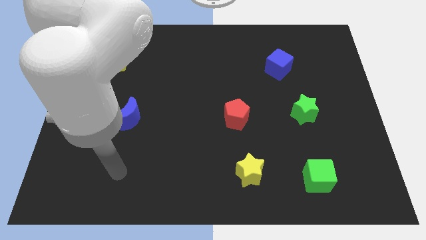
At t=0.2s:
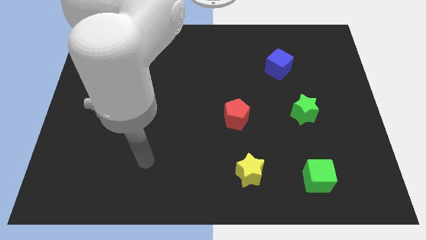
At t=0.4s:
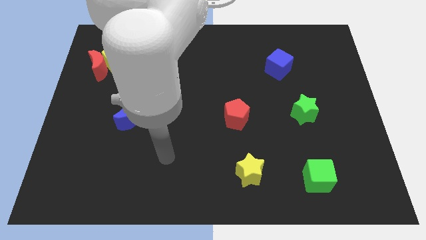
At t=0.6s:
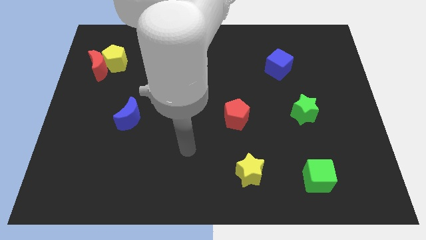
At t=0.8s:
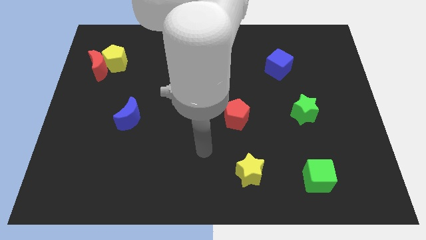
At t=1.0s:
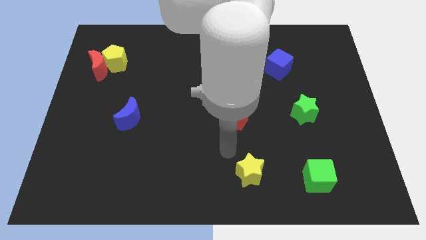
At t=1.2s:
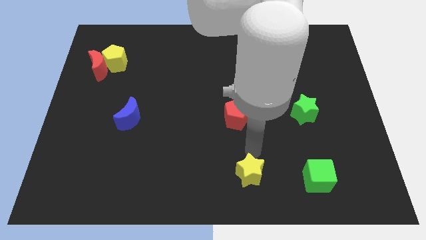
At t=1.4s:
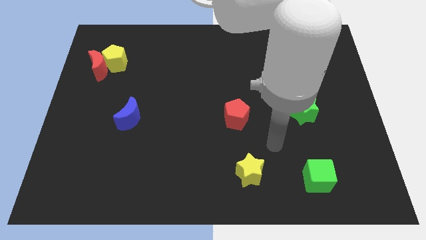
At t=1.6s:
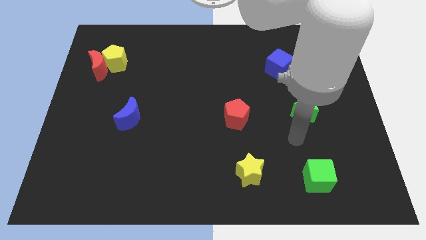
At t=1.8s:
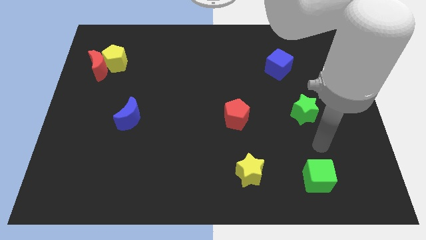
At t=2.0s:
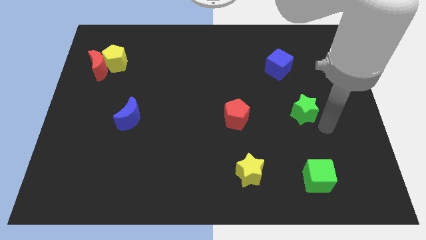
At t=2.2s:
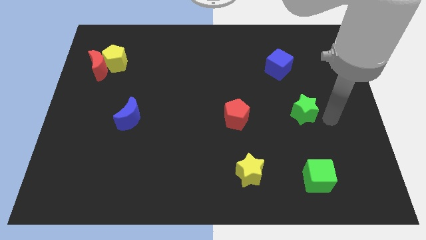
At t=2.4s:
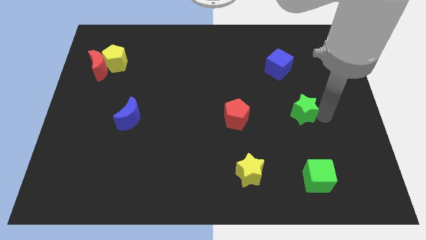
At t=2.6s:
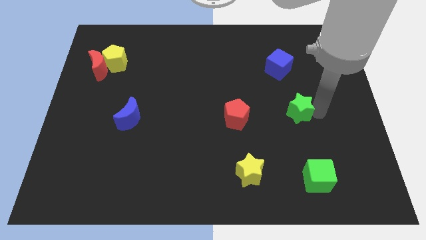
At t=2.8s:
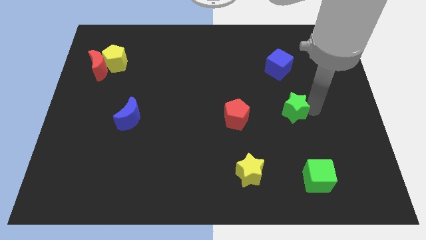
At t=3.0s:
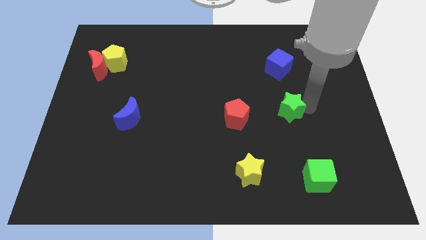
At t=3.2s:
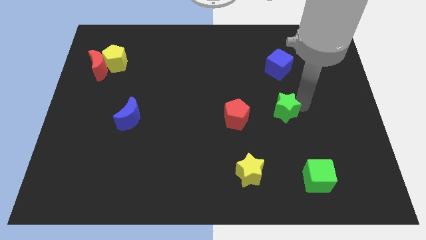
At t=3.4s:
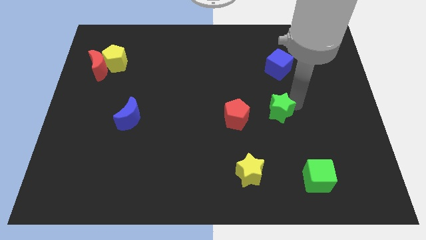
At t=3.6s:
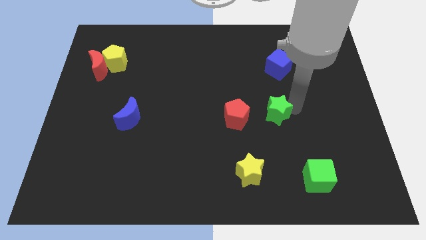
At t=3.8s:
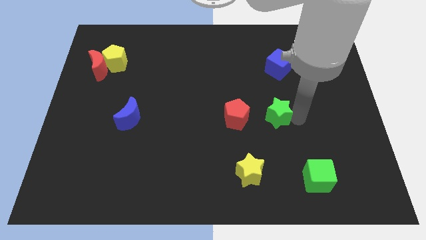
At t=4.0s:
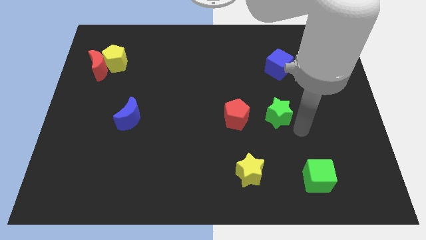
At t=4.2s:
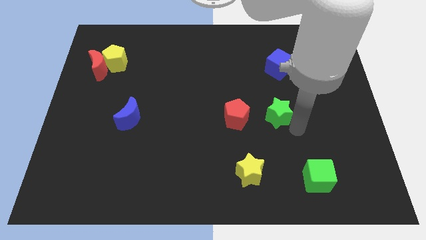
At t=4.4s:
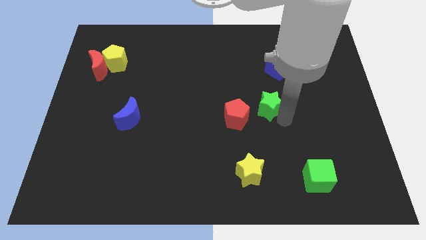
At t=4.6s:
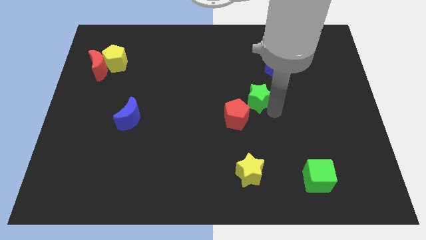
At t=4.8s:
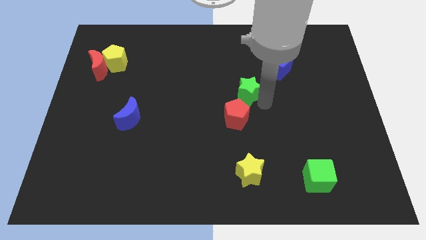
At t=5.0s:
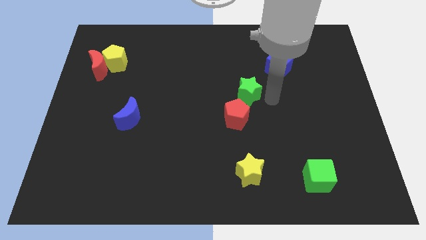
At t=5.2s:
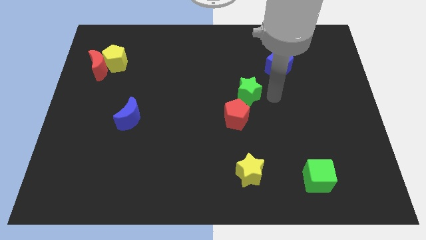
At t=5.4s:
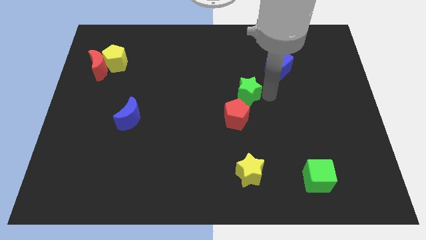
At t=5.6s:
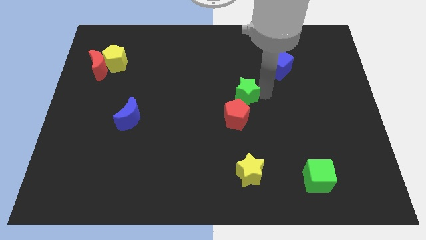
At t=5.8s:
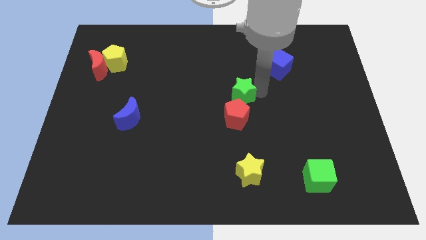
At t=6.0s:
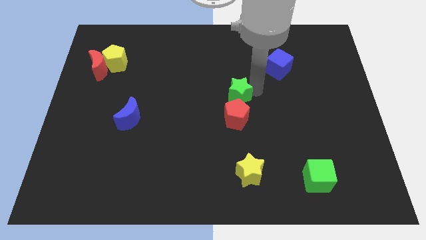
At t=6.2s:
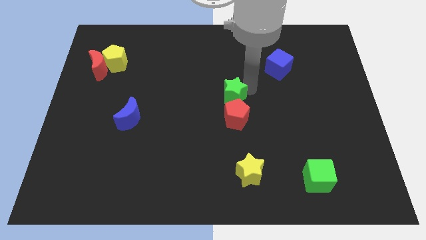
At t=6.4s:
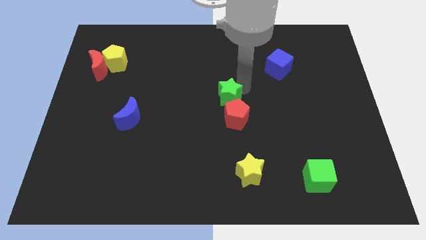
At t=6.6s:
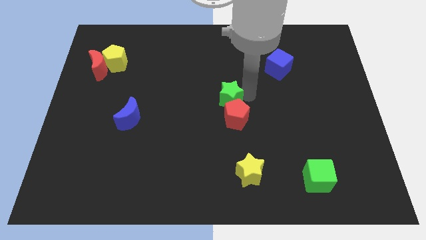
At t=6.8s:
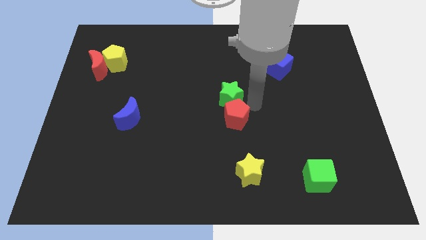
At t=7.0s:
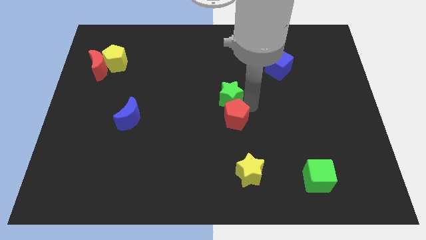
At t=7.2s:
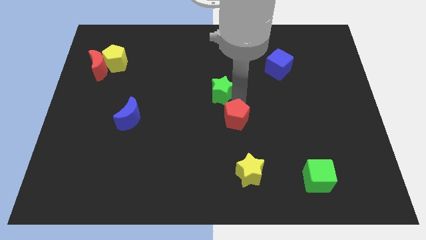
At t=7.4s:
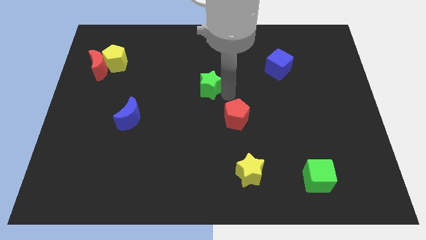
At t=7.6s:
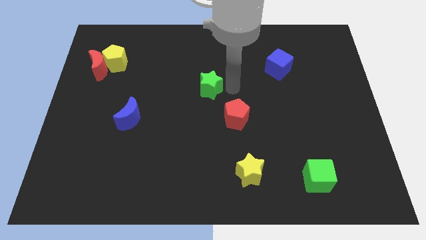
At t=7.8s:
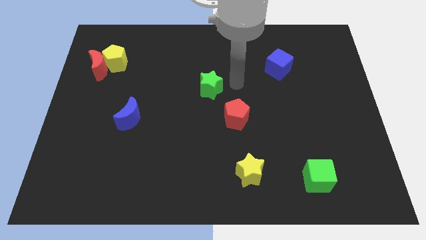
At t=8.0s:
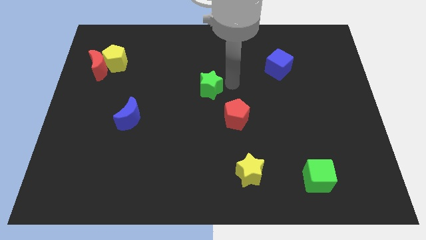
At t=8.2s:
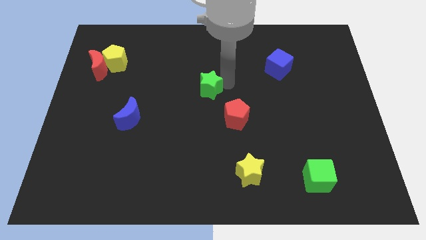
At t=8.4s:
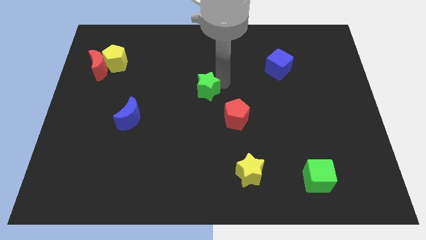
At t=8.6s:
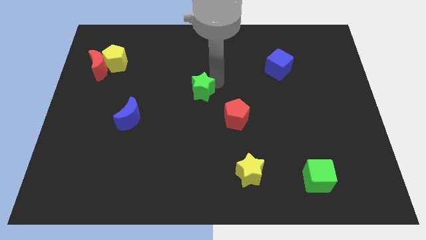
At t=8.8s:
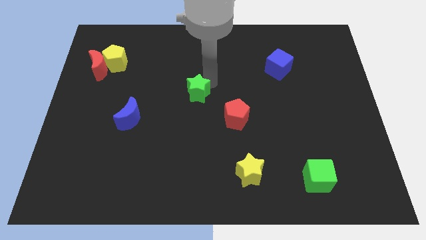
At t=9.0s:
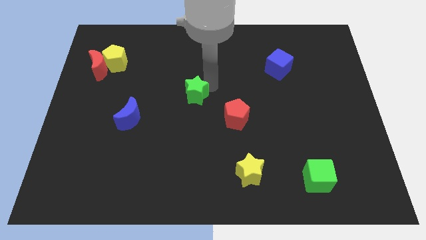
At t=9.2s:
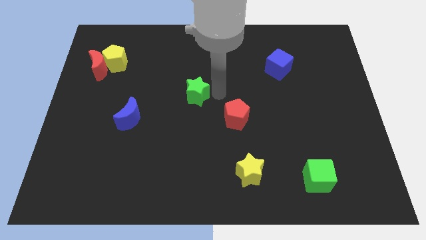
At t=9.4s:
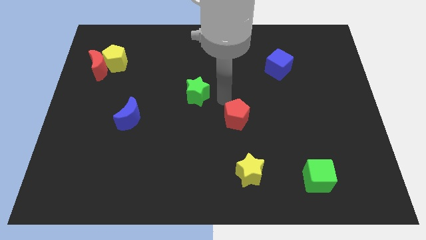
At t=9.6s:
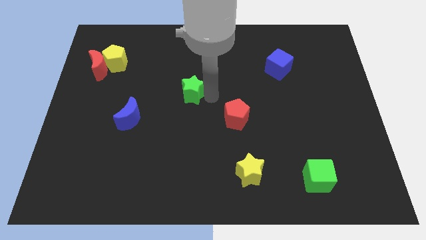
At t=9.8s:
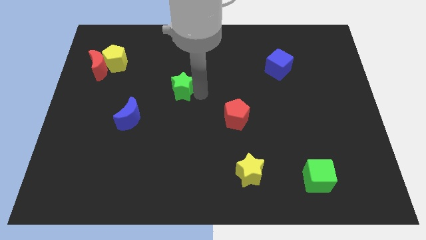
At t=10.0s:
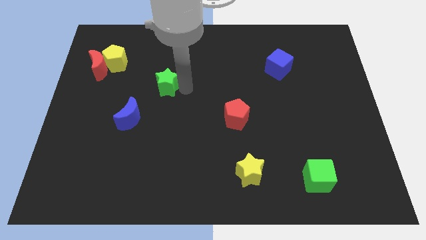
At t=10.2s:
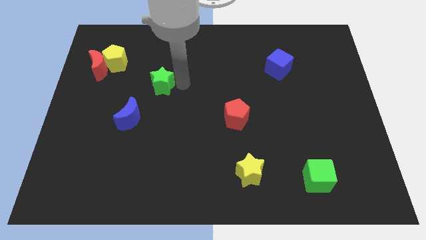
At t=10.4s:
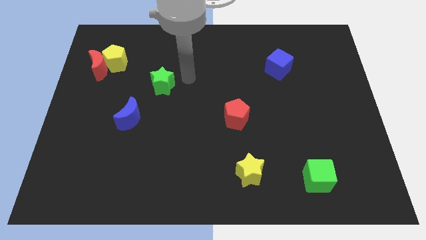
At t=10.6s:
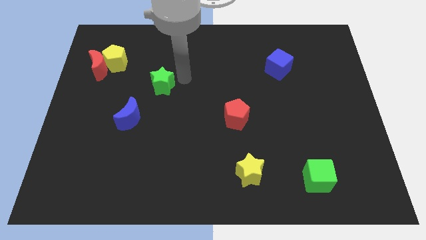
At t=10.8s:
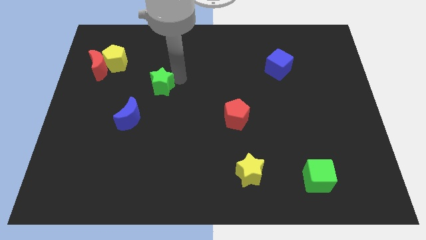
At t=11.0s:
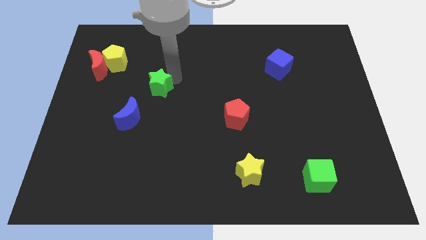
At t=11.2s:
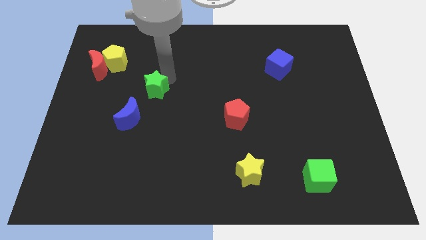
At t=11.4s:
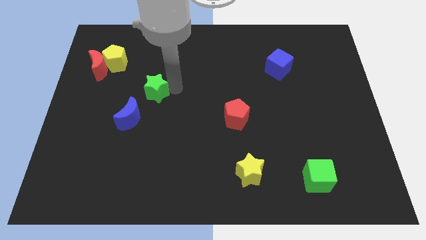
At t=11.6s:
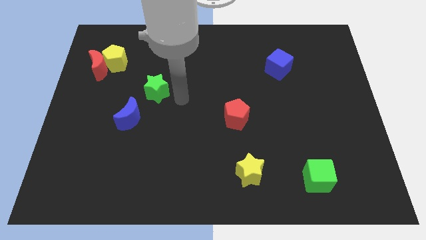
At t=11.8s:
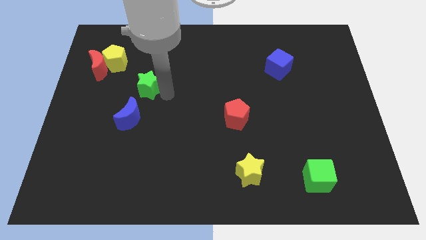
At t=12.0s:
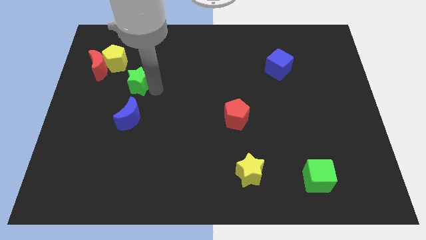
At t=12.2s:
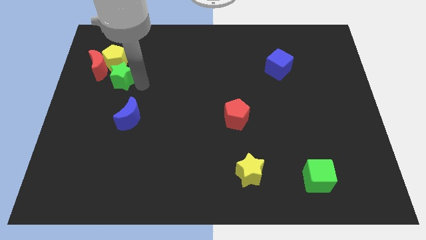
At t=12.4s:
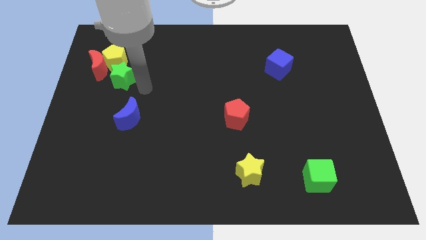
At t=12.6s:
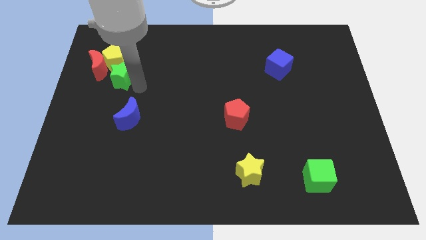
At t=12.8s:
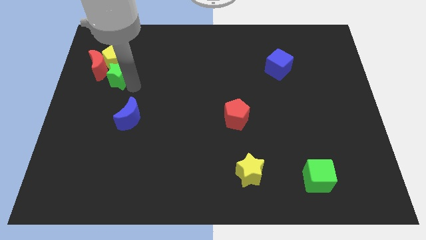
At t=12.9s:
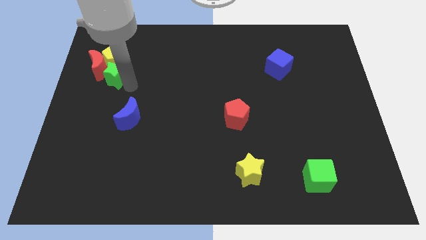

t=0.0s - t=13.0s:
slide the green star towards the red moon

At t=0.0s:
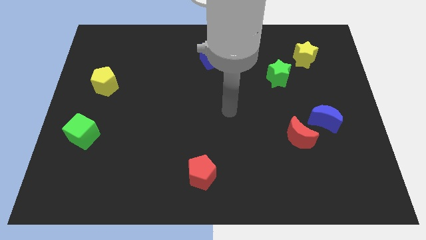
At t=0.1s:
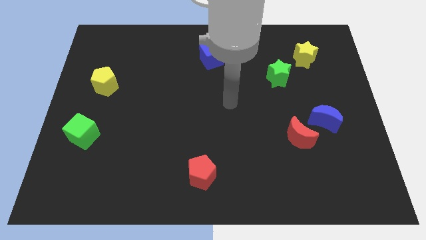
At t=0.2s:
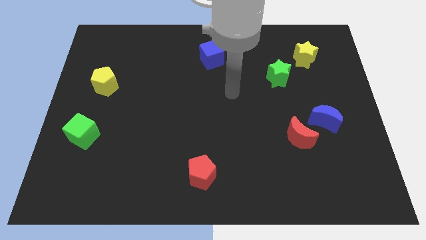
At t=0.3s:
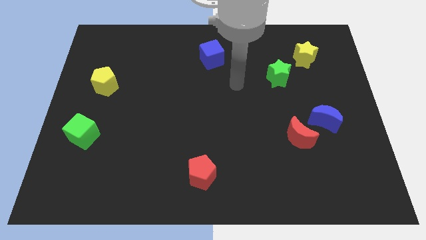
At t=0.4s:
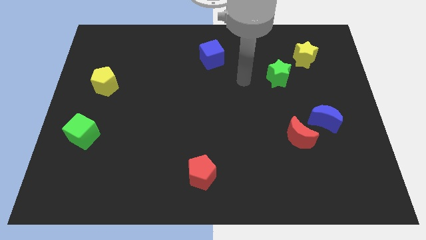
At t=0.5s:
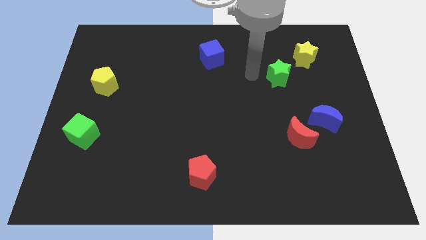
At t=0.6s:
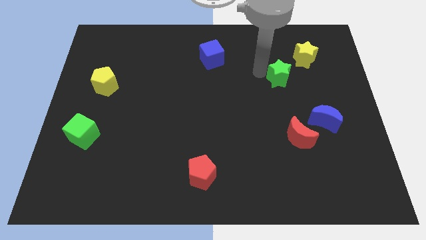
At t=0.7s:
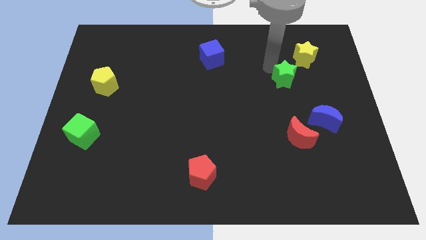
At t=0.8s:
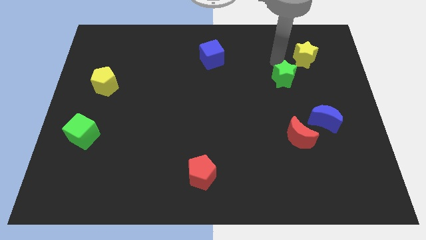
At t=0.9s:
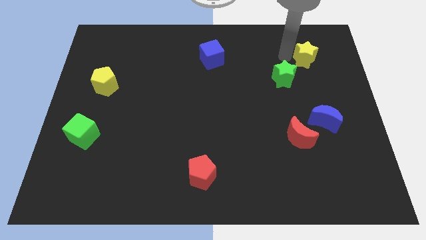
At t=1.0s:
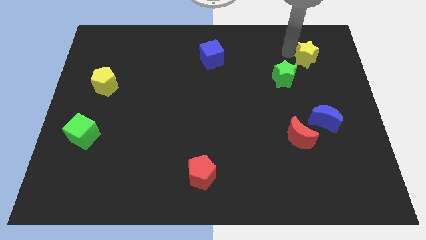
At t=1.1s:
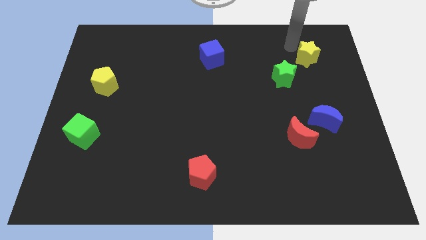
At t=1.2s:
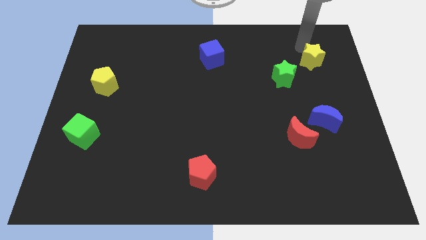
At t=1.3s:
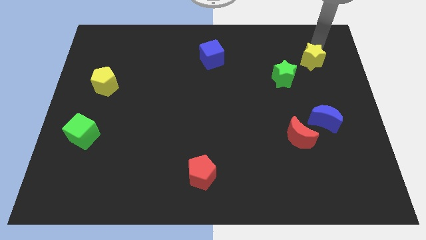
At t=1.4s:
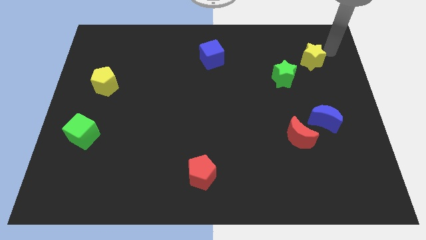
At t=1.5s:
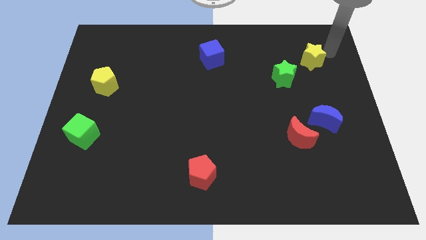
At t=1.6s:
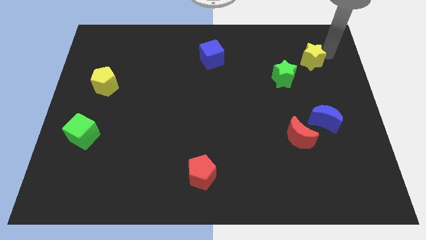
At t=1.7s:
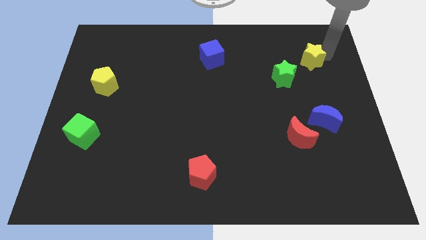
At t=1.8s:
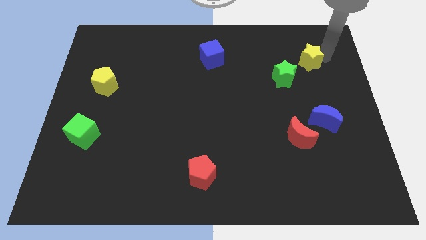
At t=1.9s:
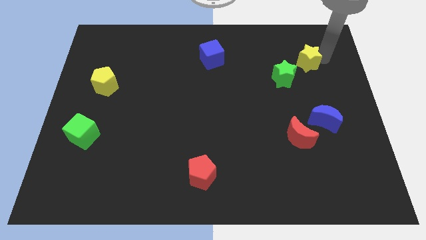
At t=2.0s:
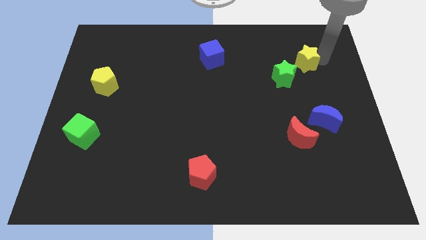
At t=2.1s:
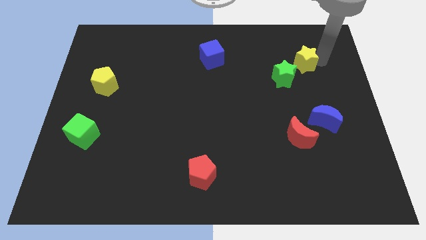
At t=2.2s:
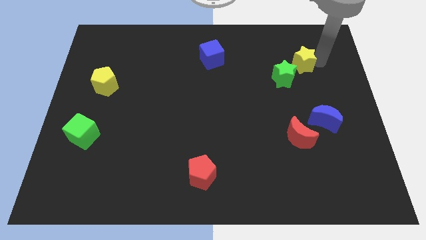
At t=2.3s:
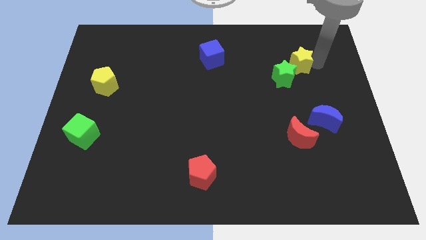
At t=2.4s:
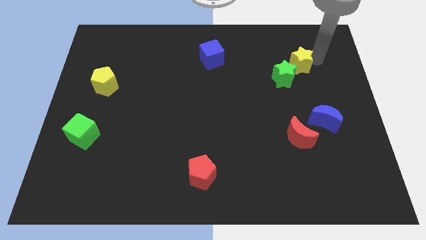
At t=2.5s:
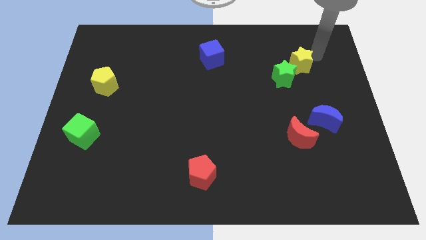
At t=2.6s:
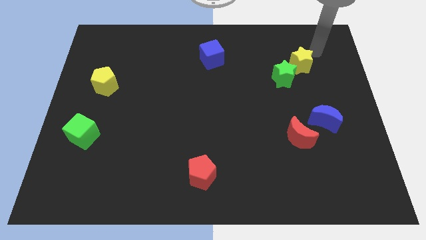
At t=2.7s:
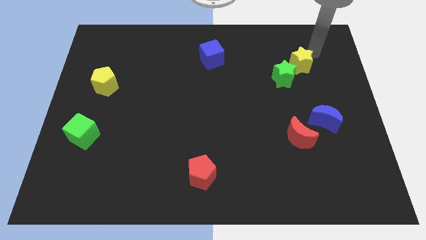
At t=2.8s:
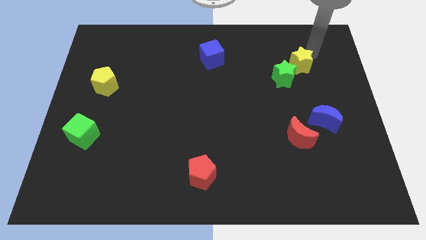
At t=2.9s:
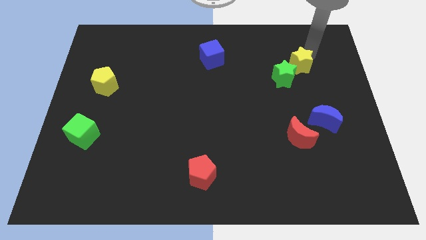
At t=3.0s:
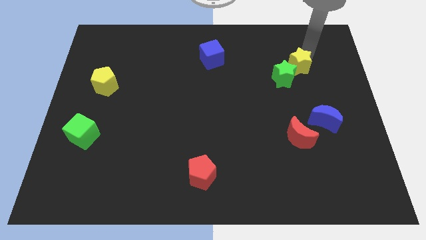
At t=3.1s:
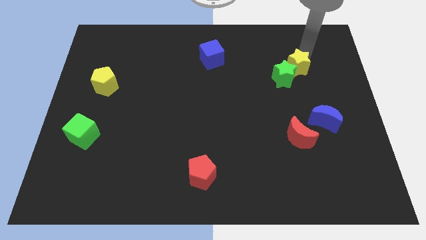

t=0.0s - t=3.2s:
move the yellow star close to the green star
